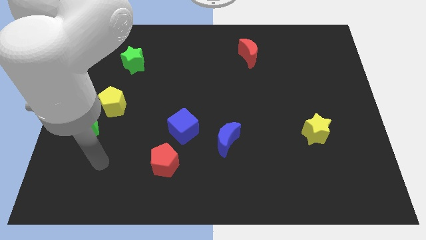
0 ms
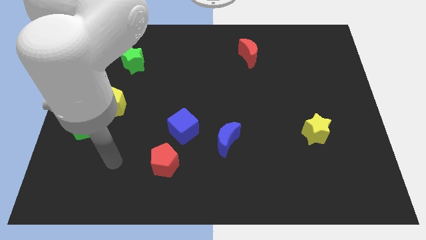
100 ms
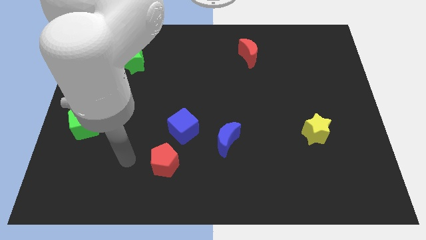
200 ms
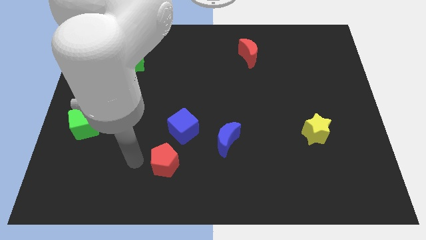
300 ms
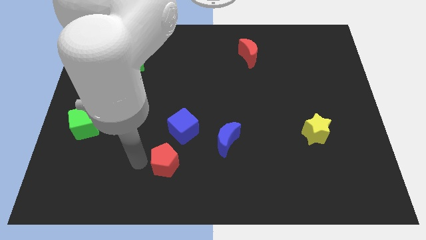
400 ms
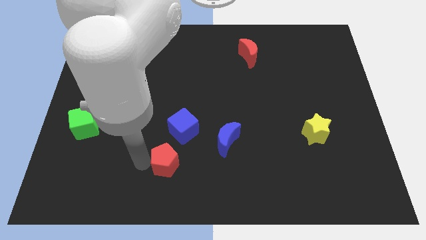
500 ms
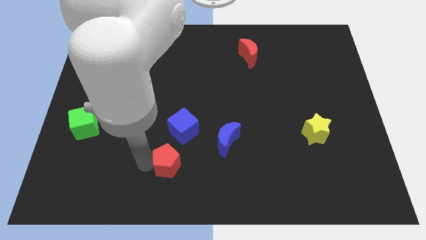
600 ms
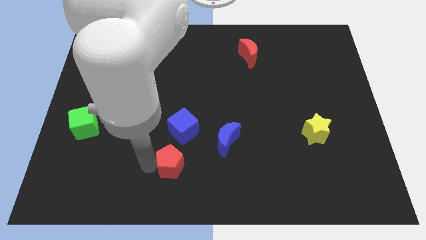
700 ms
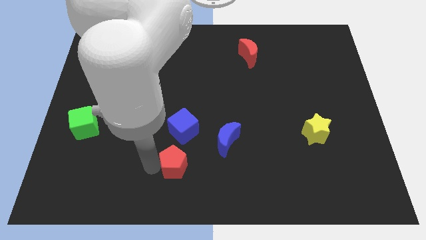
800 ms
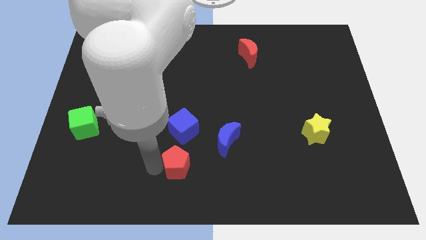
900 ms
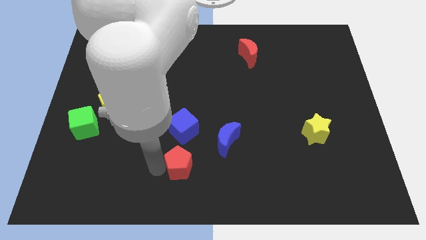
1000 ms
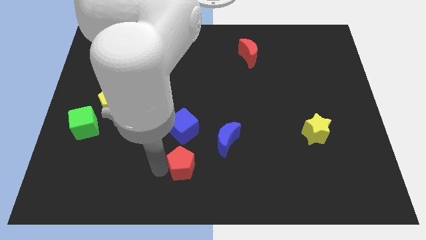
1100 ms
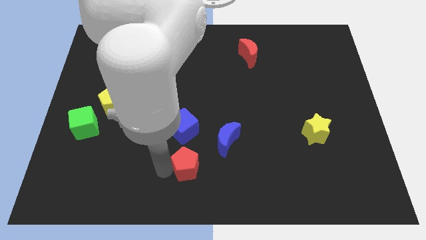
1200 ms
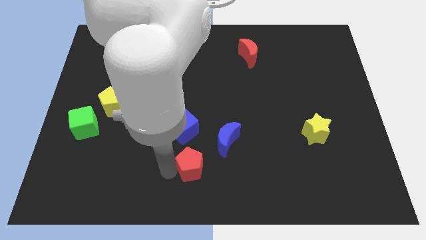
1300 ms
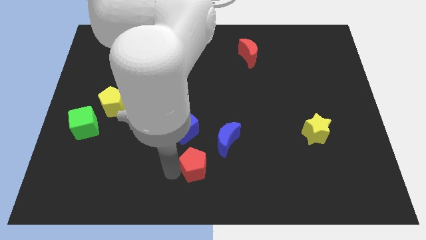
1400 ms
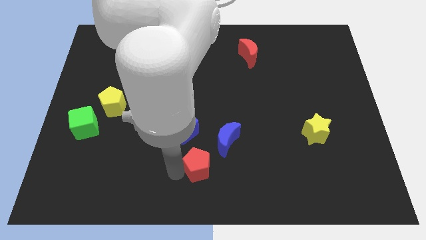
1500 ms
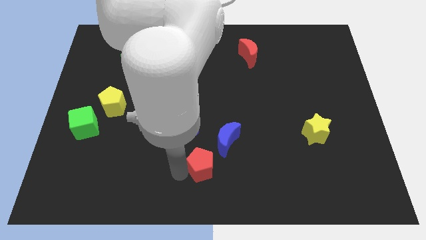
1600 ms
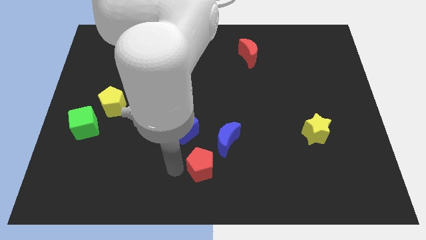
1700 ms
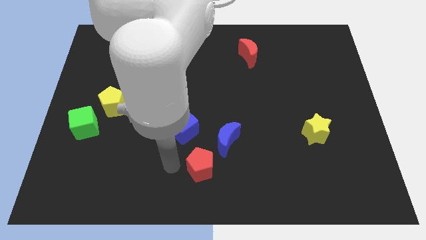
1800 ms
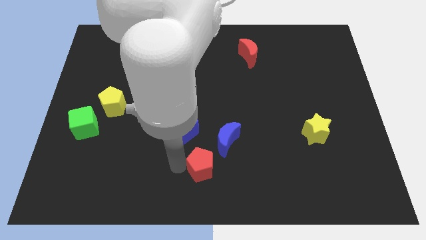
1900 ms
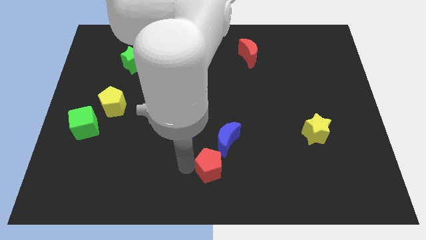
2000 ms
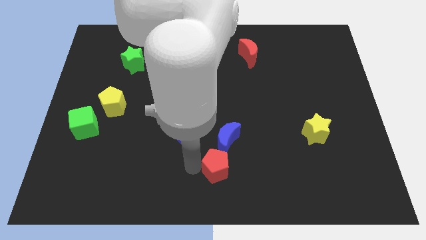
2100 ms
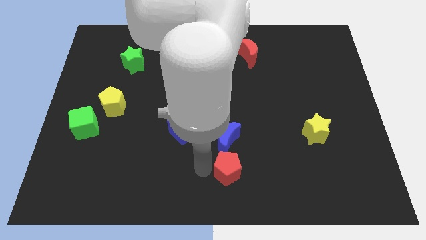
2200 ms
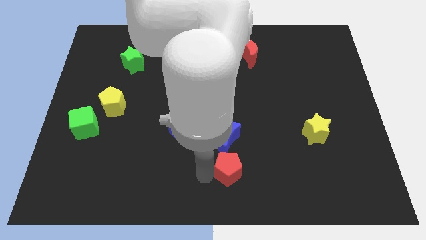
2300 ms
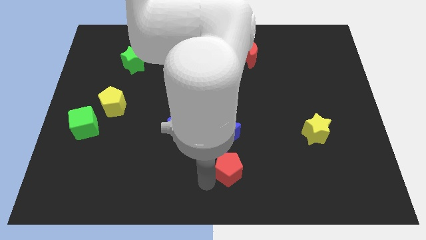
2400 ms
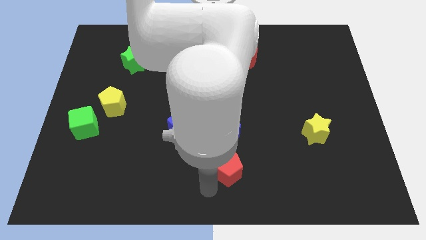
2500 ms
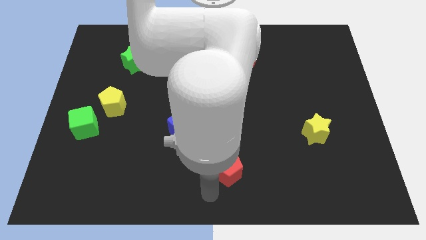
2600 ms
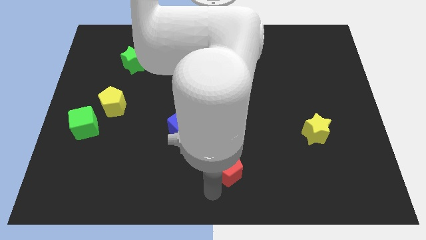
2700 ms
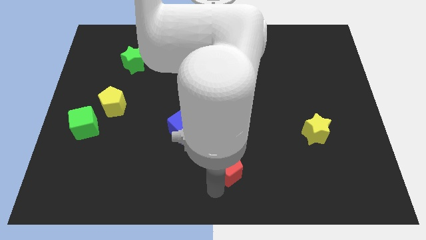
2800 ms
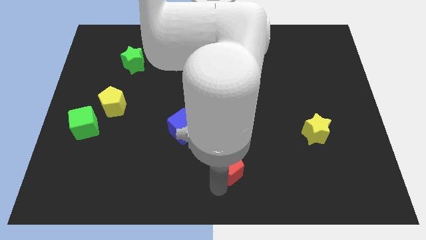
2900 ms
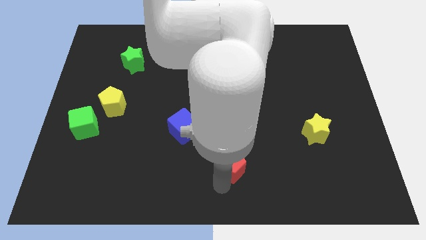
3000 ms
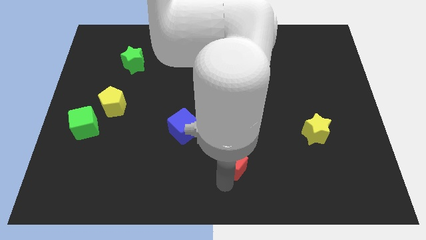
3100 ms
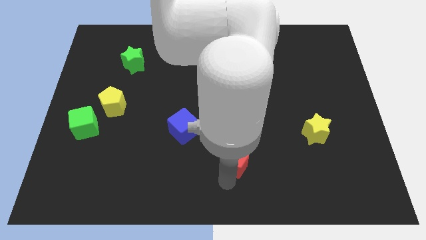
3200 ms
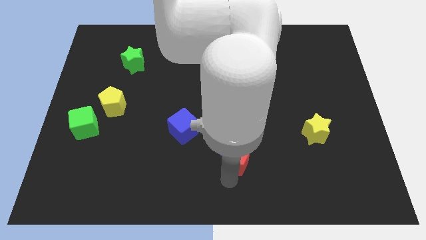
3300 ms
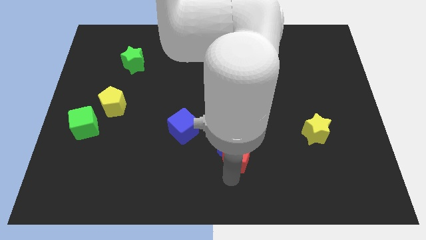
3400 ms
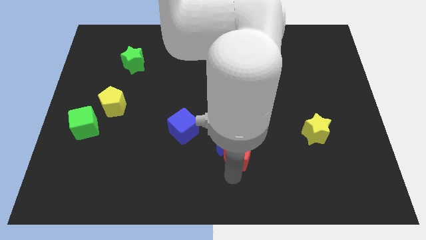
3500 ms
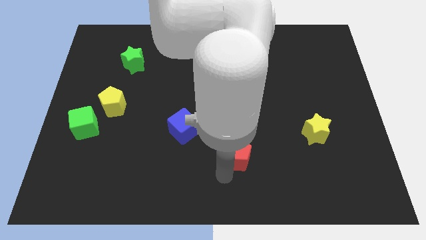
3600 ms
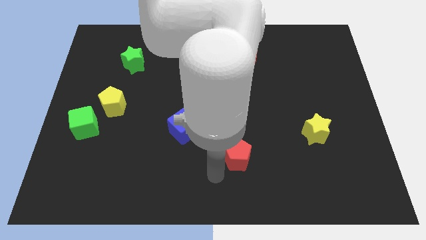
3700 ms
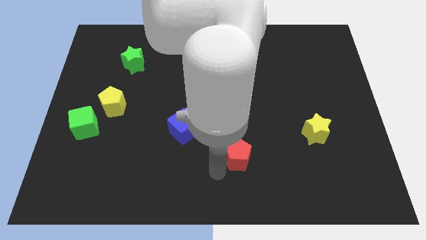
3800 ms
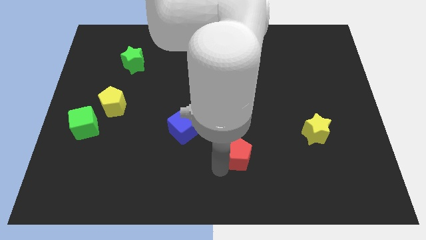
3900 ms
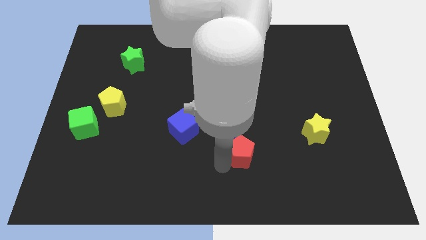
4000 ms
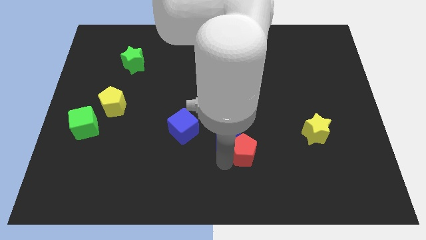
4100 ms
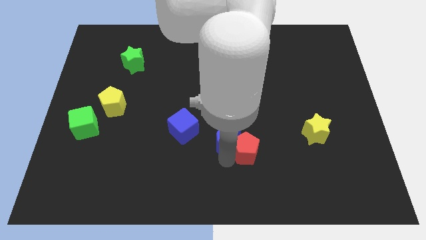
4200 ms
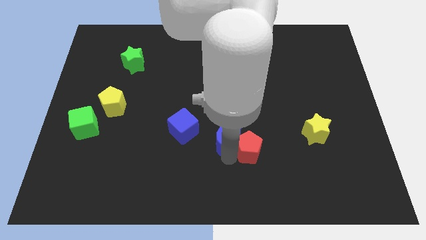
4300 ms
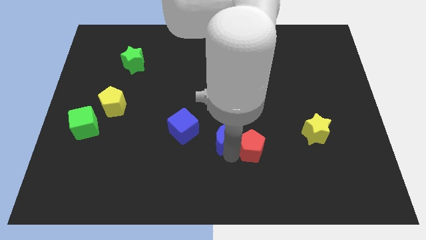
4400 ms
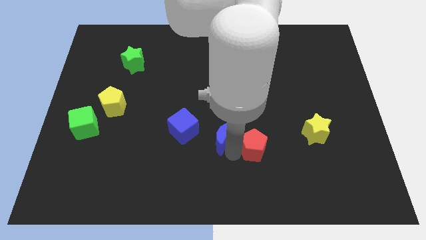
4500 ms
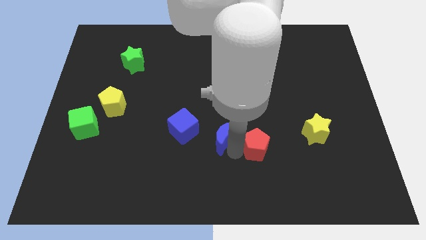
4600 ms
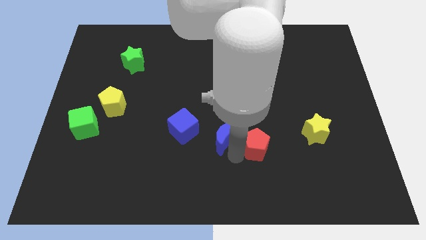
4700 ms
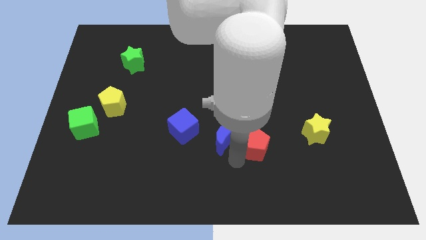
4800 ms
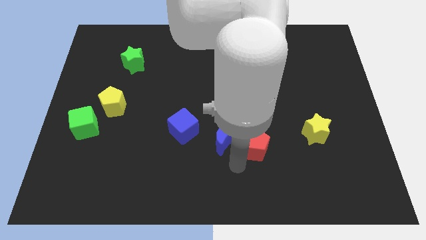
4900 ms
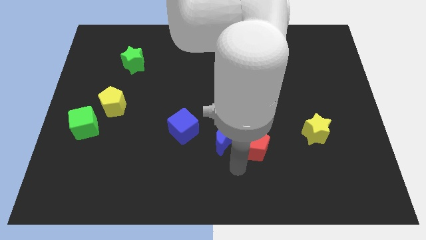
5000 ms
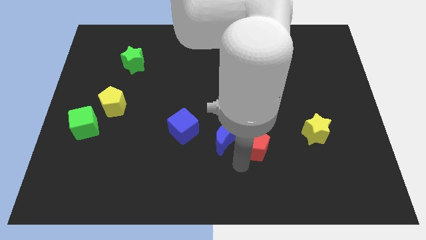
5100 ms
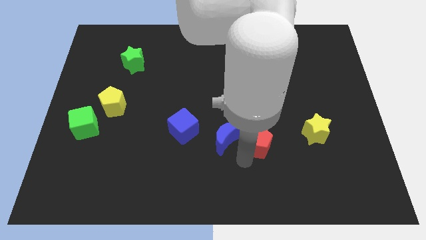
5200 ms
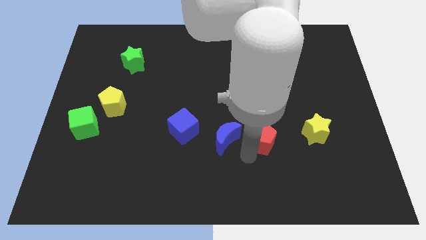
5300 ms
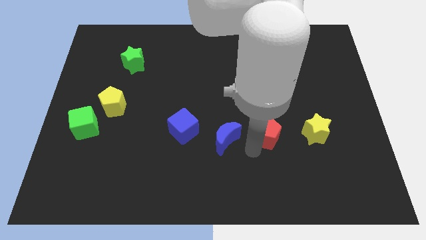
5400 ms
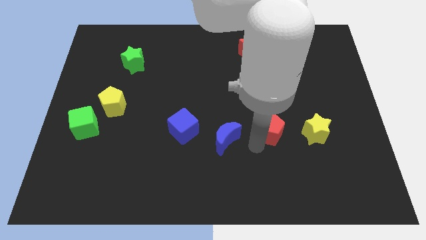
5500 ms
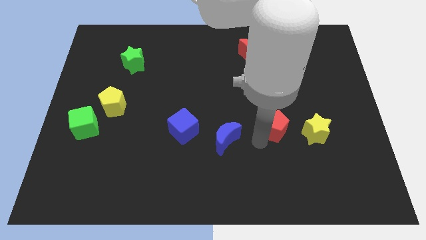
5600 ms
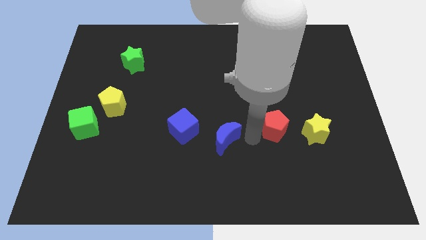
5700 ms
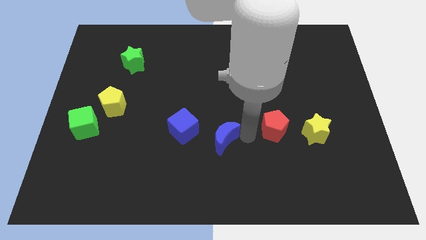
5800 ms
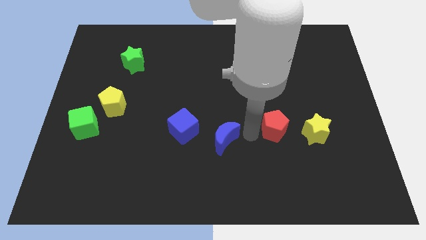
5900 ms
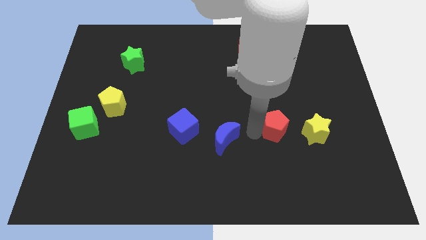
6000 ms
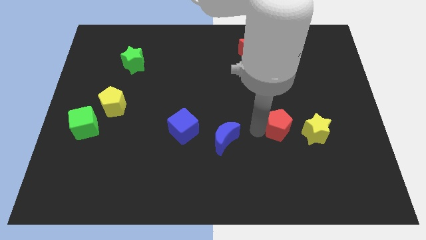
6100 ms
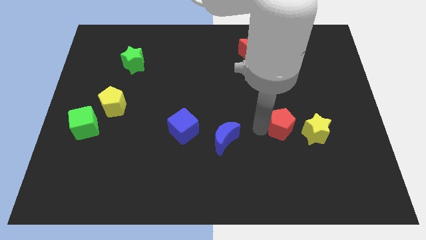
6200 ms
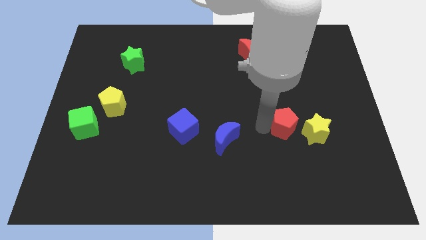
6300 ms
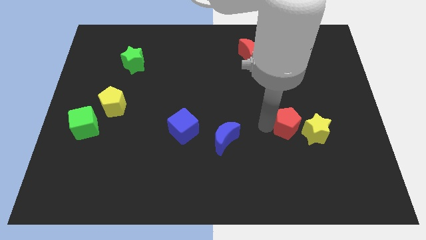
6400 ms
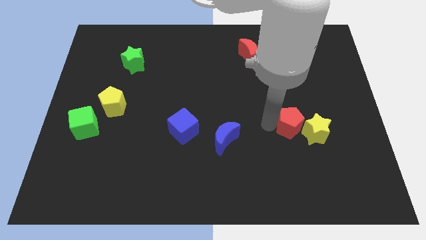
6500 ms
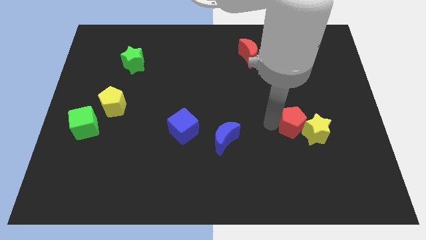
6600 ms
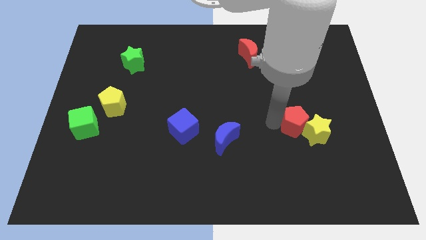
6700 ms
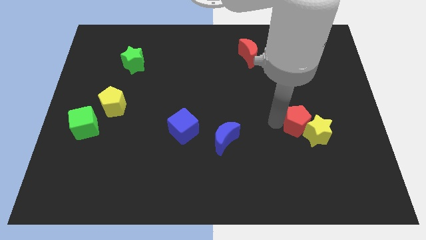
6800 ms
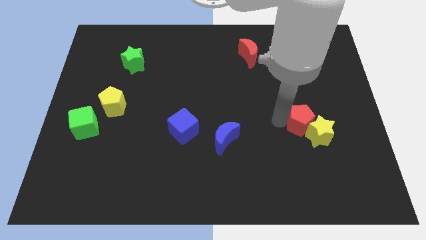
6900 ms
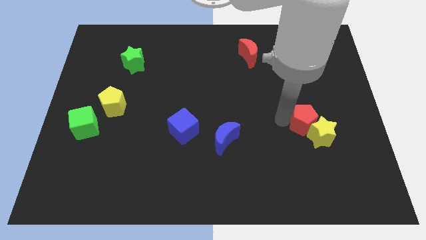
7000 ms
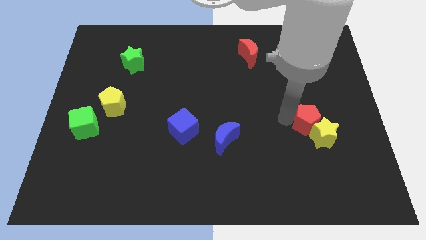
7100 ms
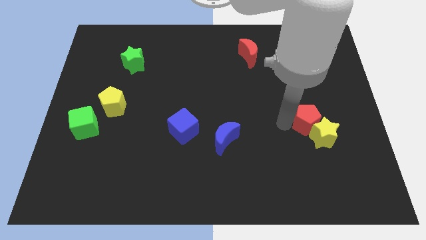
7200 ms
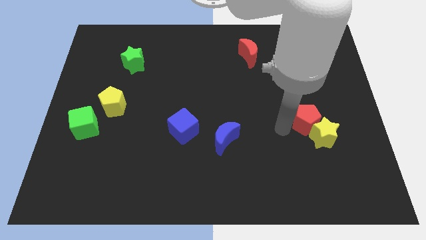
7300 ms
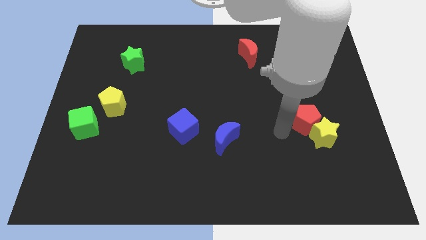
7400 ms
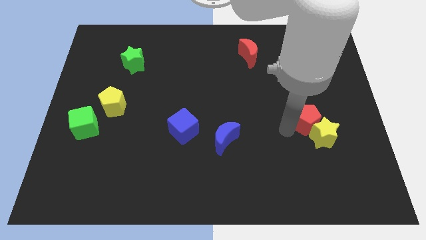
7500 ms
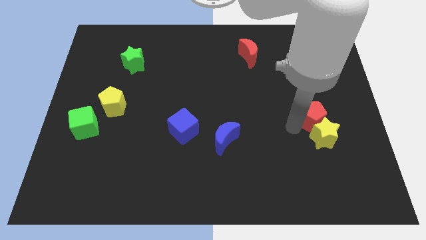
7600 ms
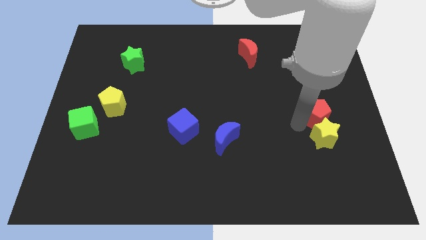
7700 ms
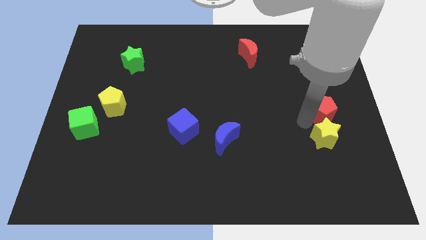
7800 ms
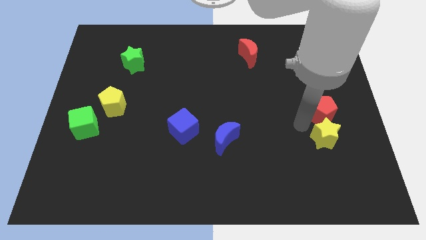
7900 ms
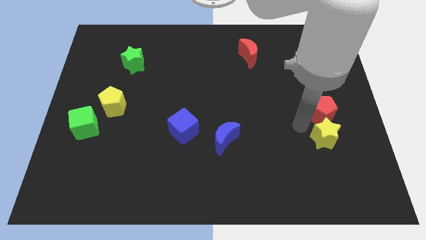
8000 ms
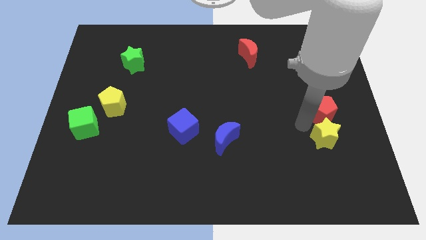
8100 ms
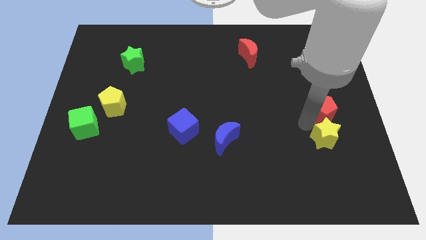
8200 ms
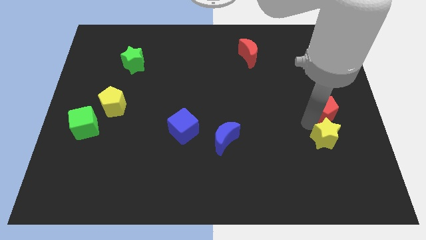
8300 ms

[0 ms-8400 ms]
move the red pentagon to the center right
